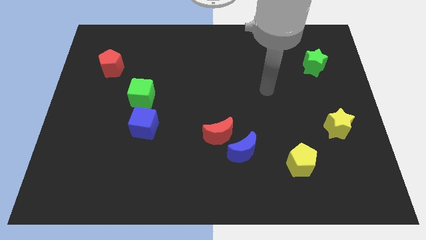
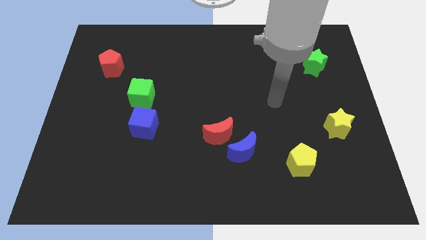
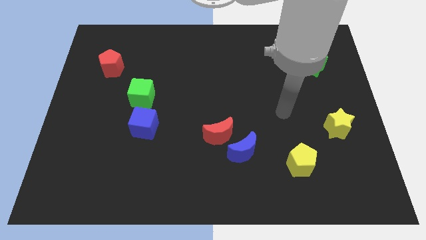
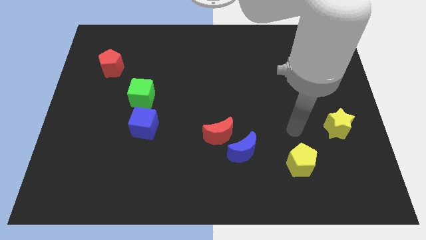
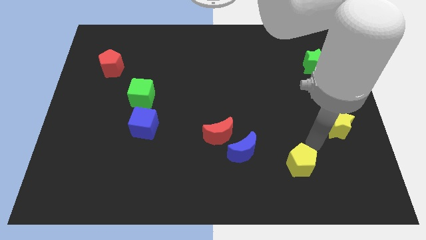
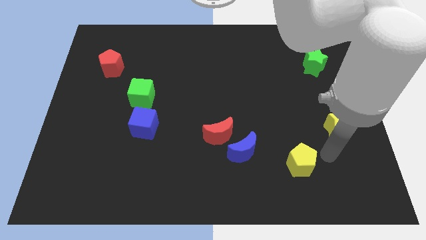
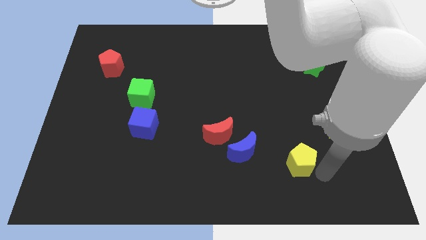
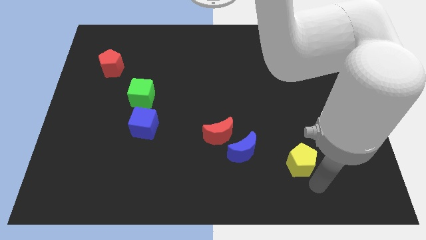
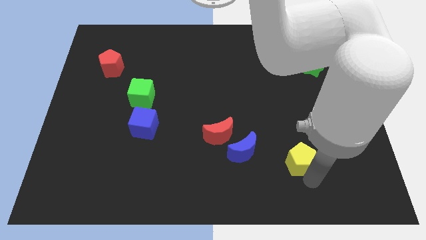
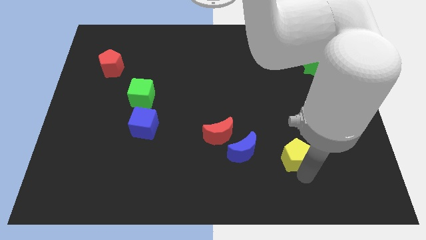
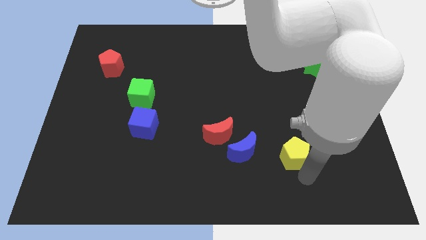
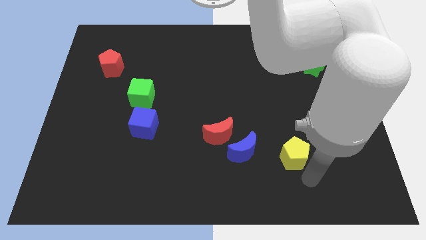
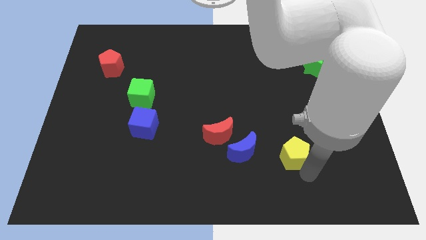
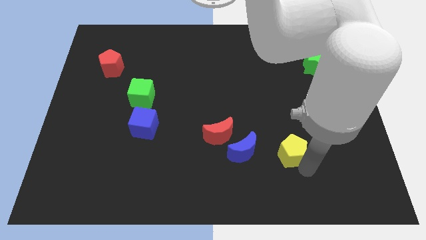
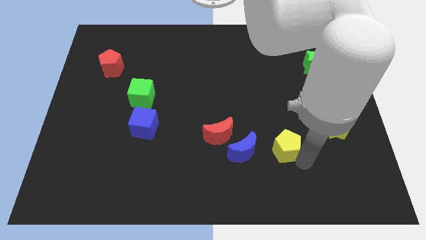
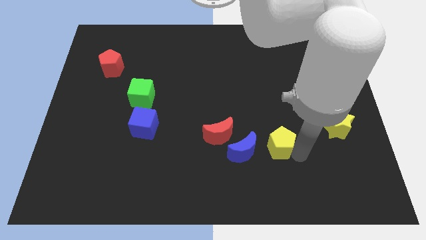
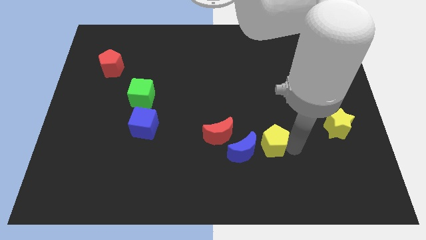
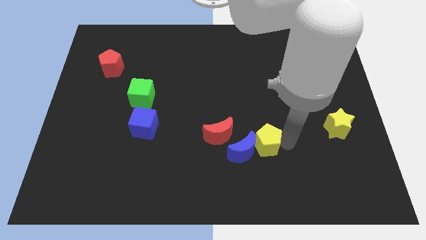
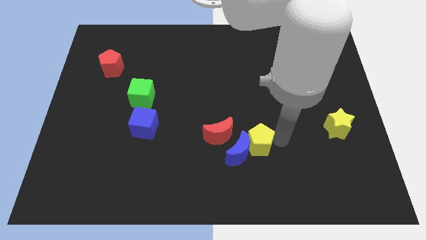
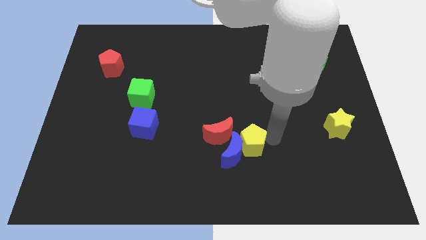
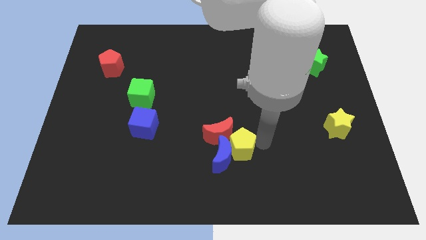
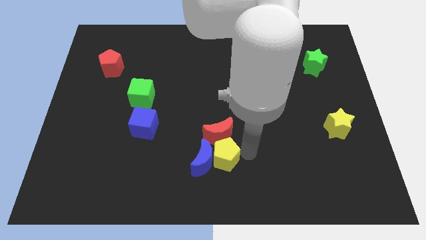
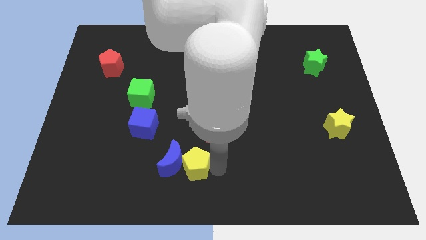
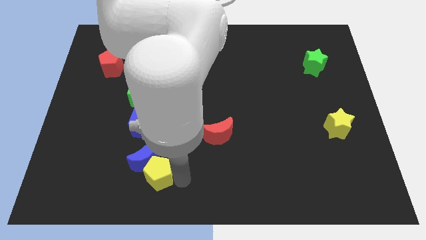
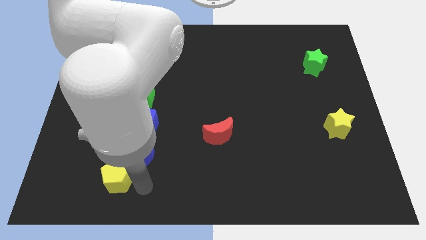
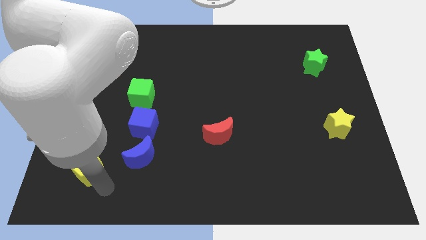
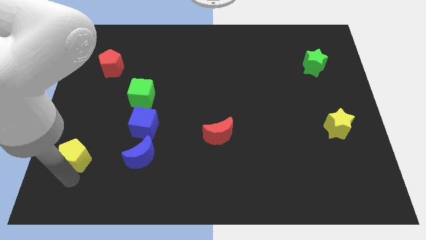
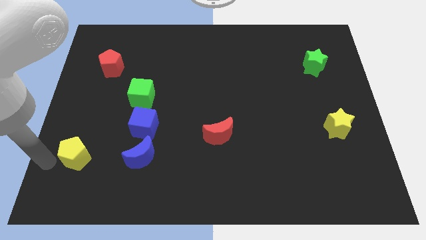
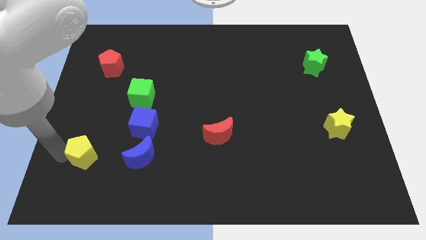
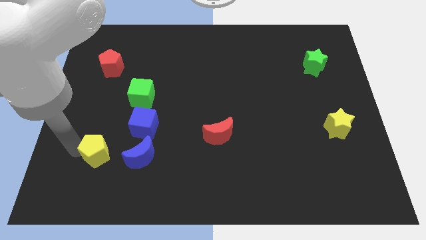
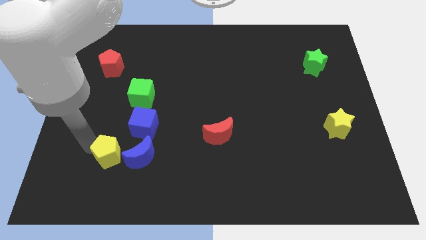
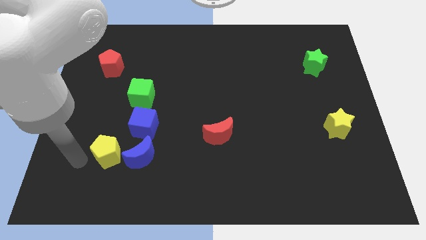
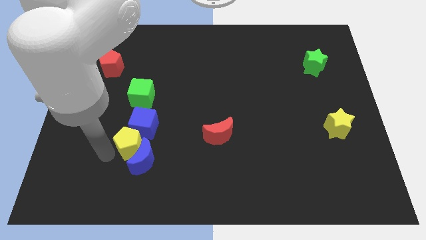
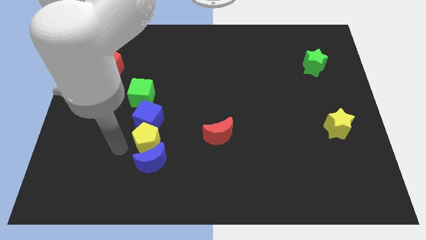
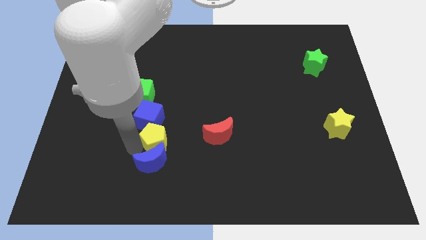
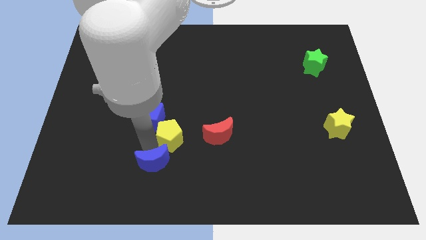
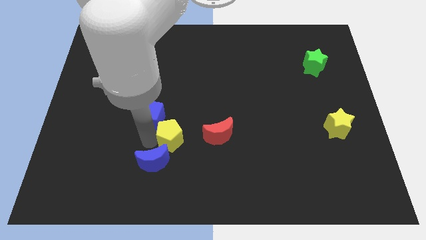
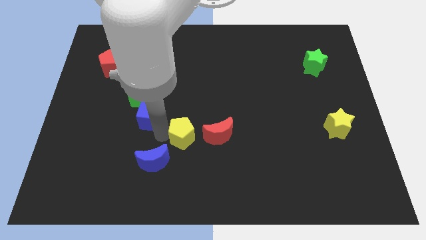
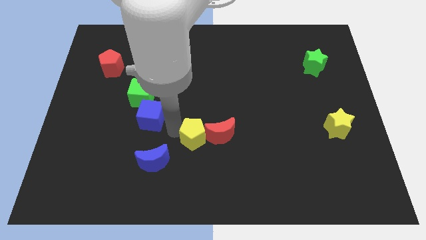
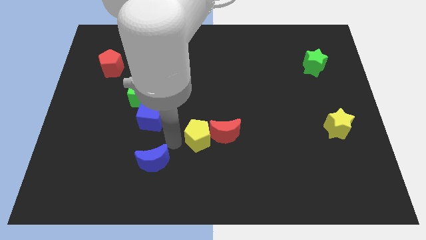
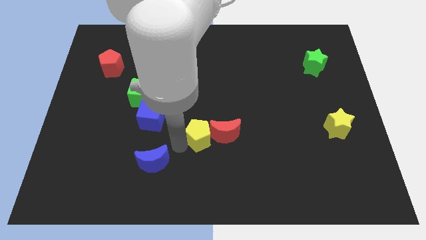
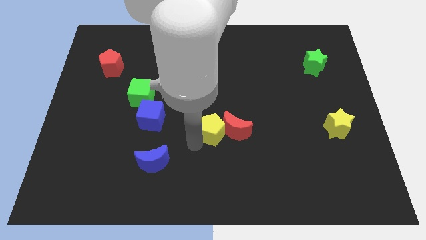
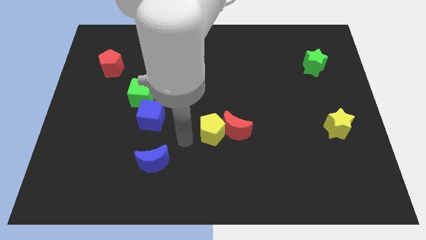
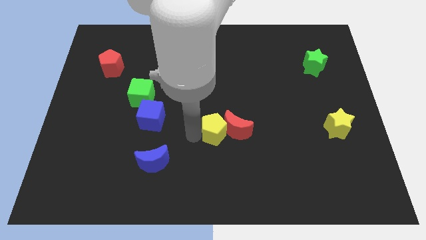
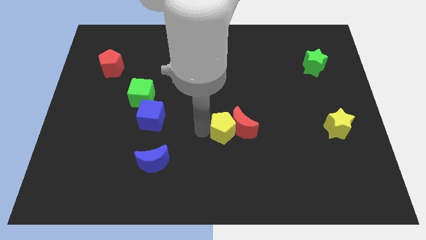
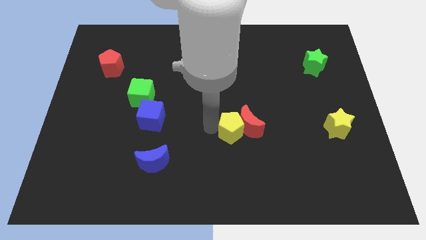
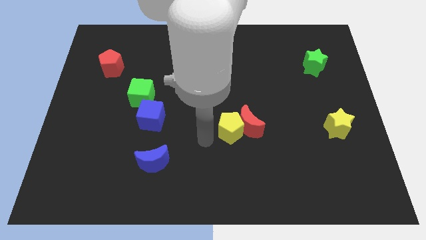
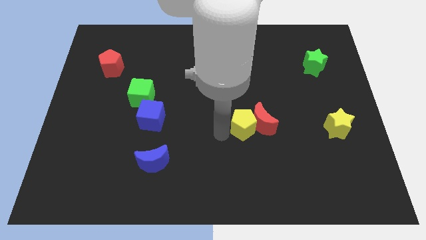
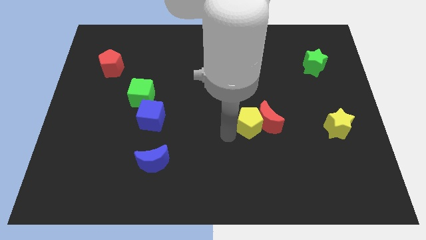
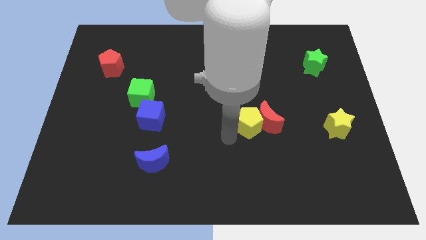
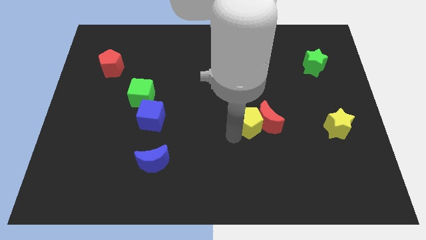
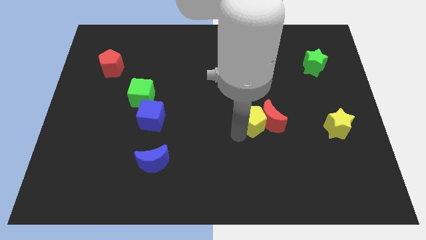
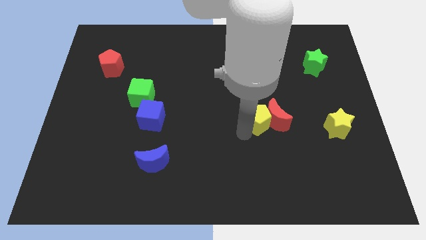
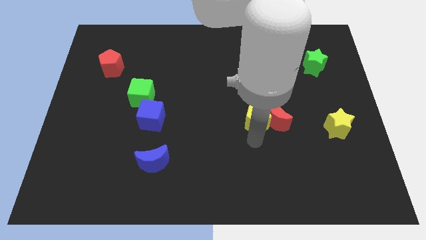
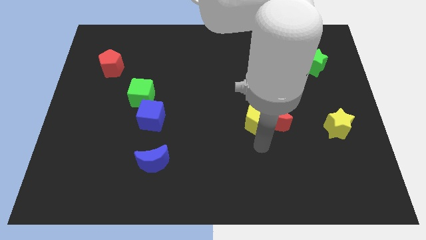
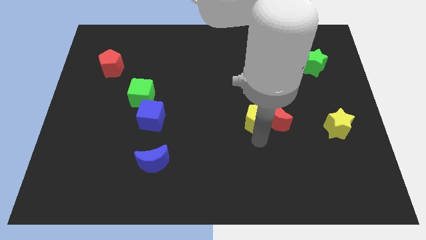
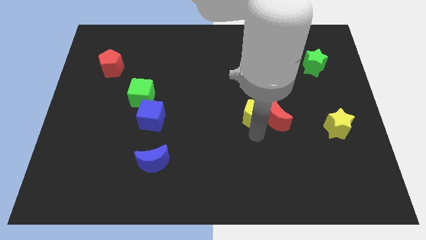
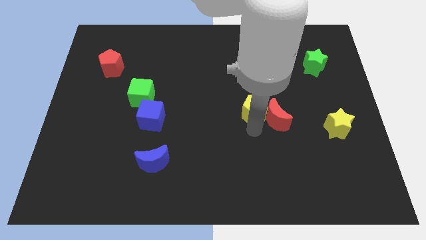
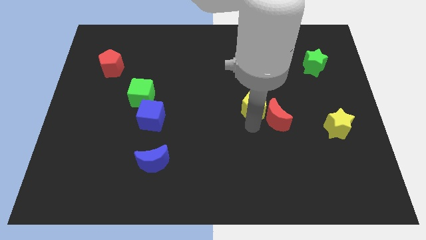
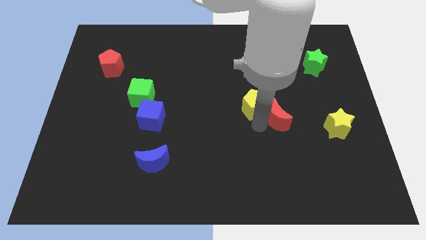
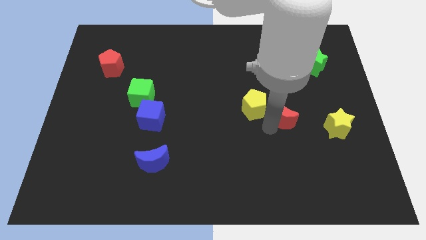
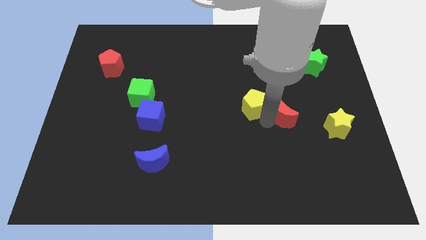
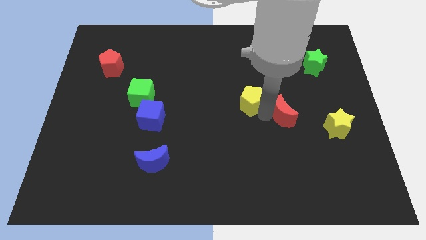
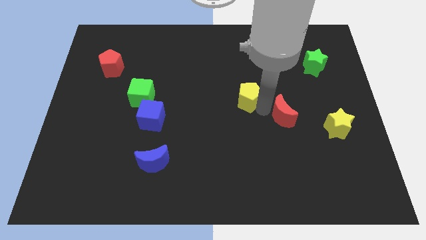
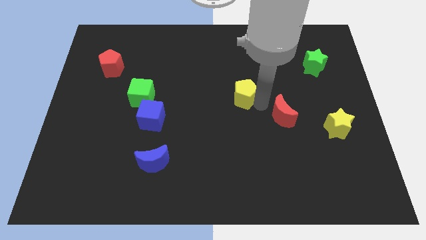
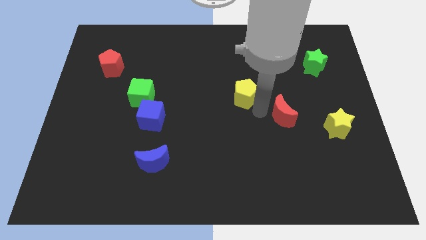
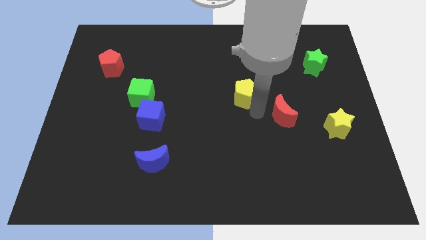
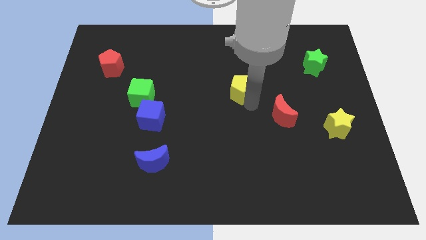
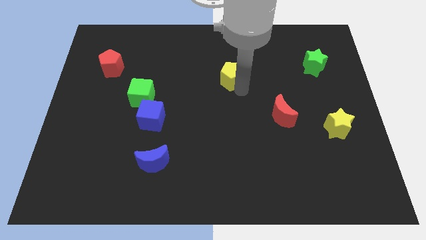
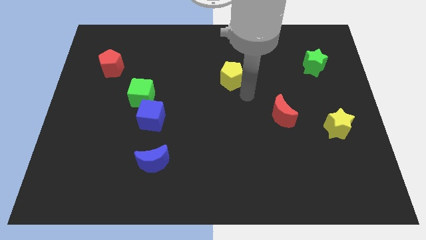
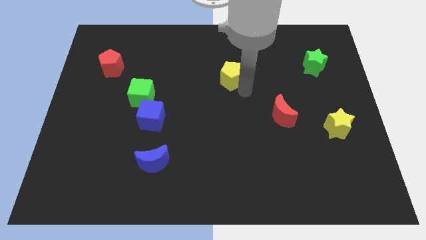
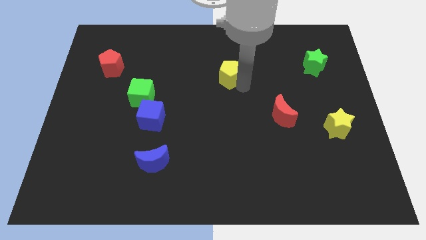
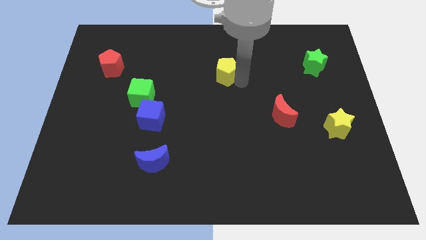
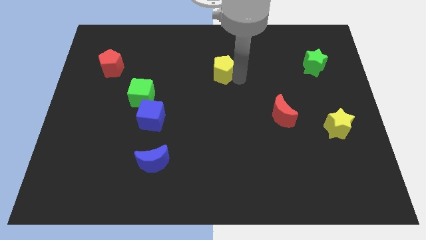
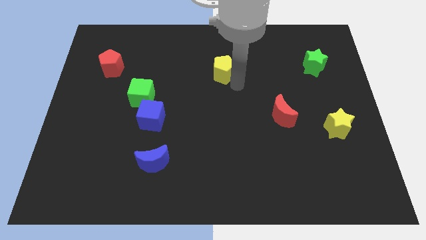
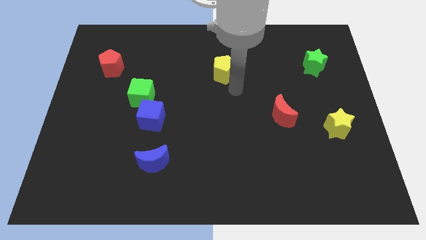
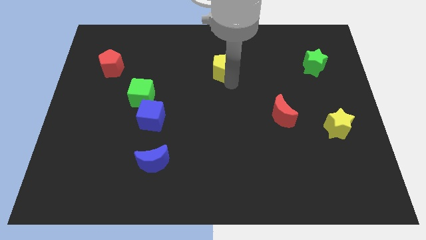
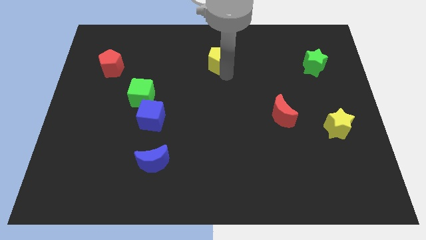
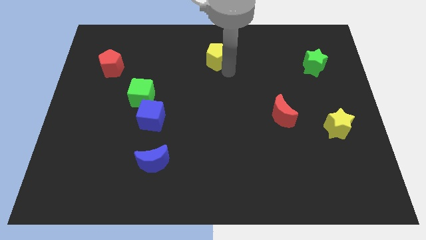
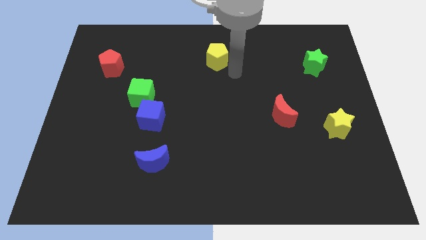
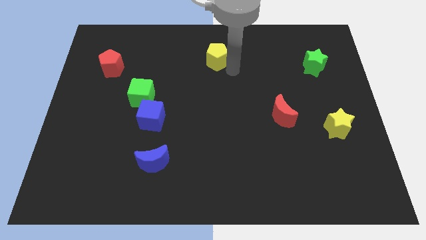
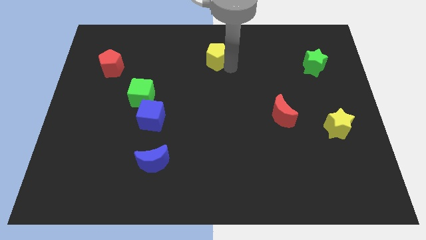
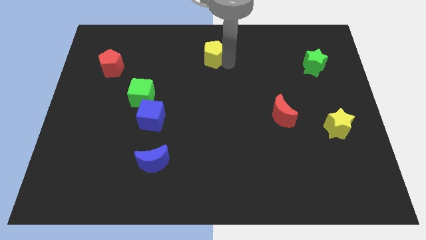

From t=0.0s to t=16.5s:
put the yellow pentagon to the towards your base
